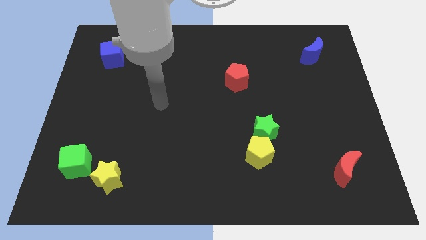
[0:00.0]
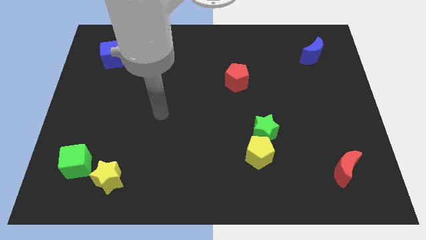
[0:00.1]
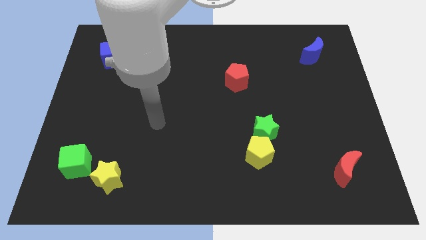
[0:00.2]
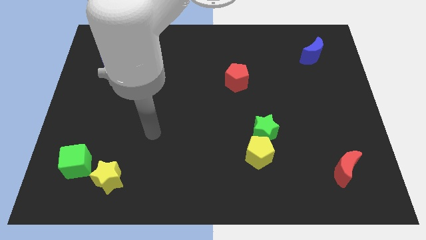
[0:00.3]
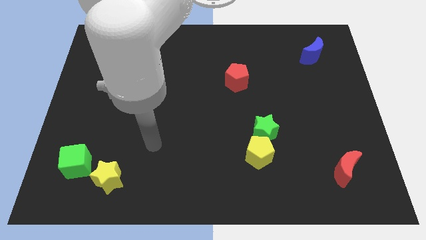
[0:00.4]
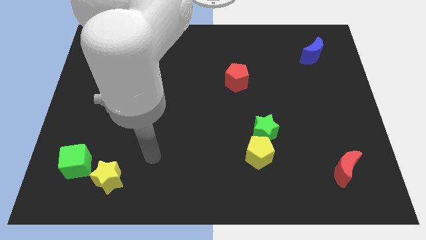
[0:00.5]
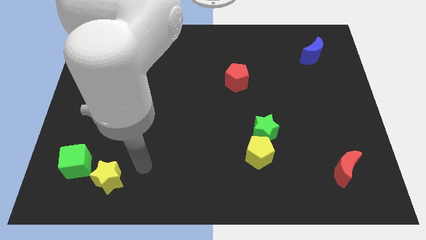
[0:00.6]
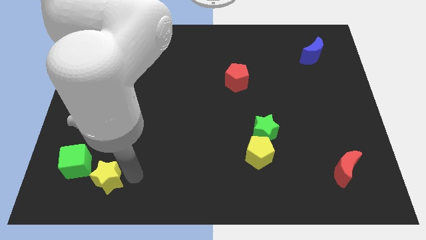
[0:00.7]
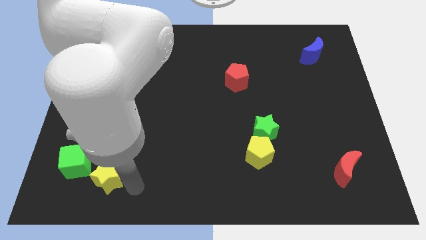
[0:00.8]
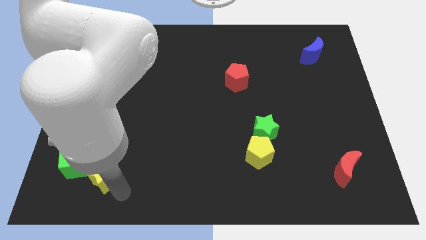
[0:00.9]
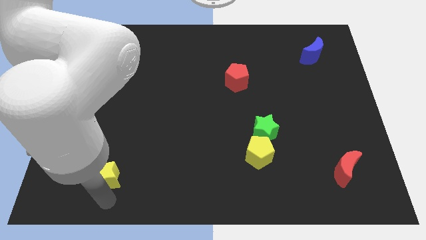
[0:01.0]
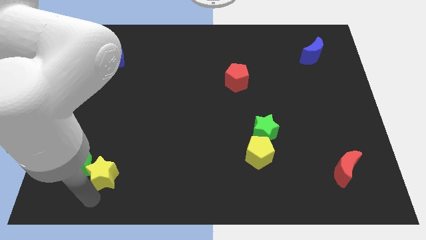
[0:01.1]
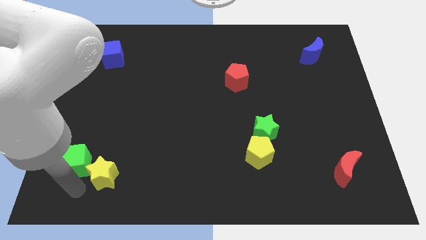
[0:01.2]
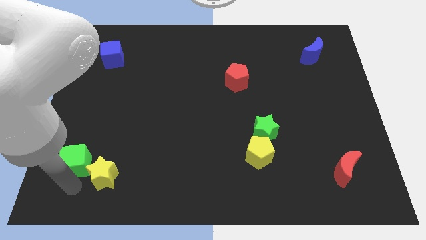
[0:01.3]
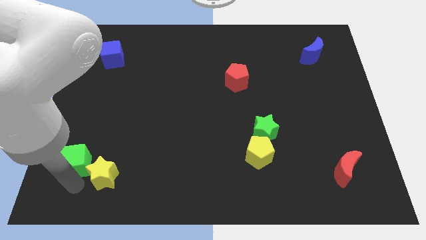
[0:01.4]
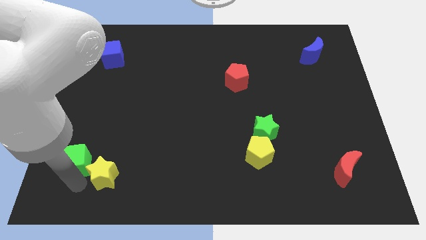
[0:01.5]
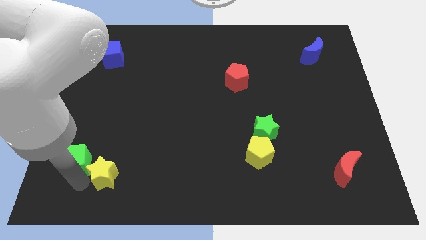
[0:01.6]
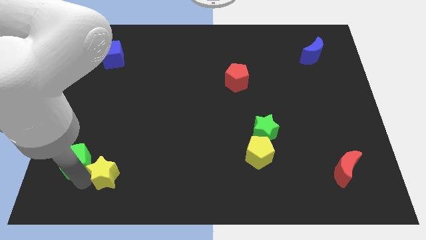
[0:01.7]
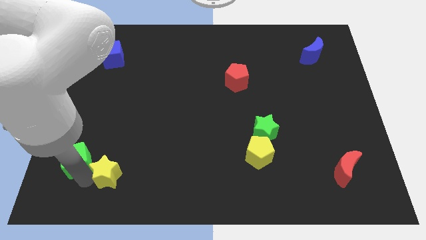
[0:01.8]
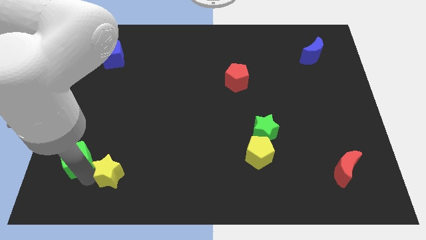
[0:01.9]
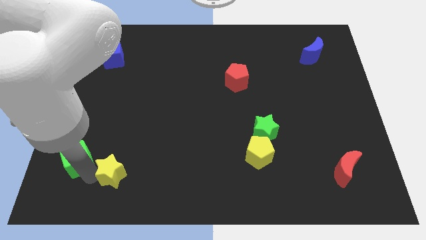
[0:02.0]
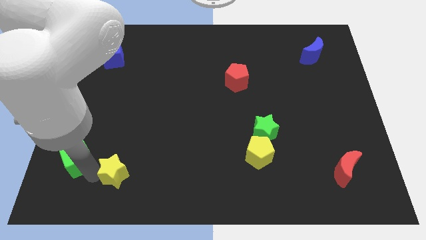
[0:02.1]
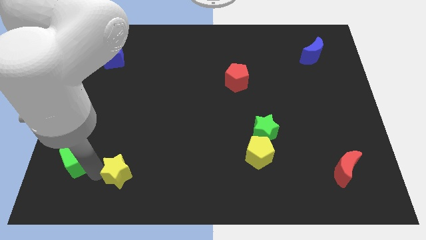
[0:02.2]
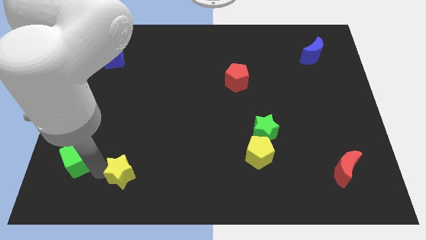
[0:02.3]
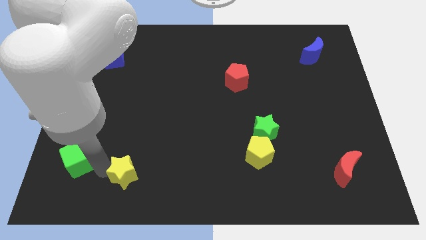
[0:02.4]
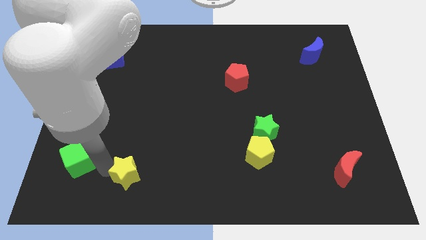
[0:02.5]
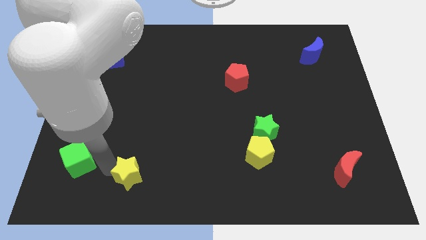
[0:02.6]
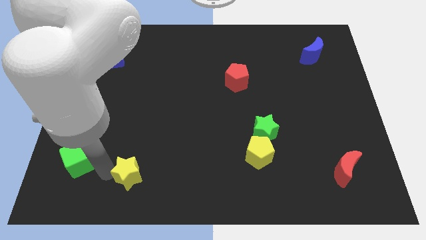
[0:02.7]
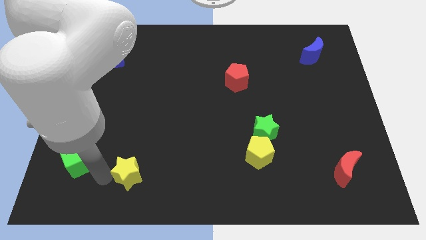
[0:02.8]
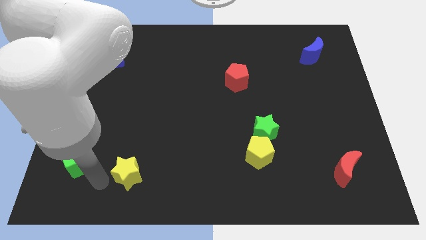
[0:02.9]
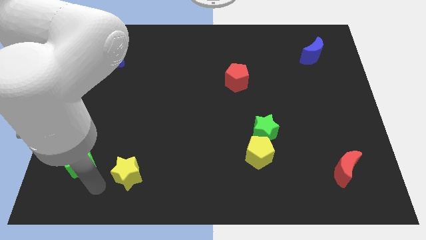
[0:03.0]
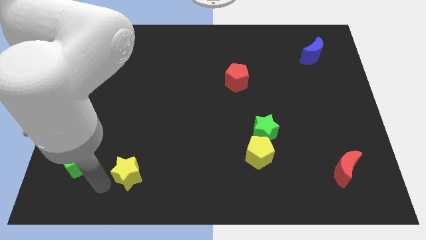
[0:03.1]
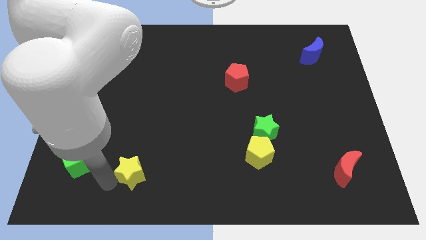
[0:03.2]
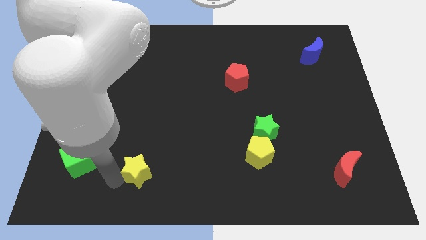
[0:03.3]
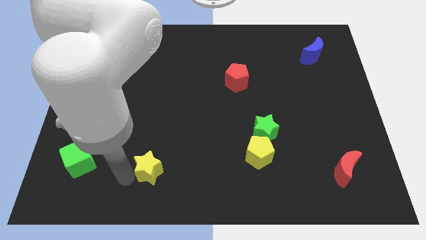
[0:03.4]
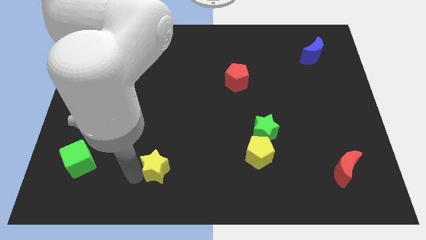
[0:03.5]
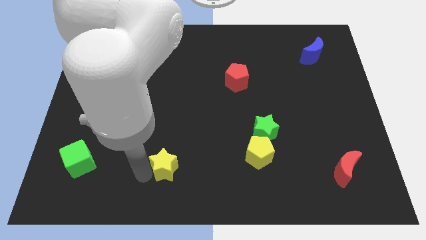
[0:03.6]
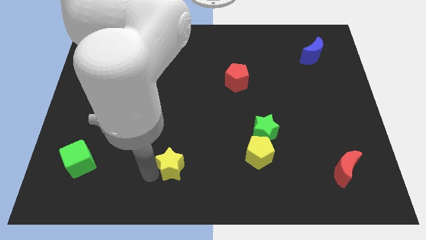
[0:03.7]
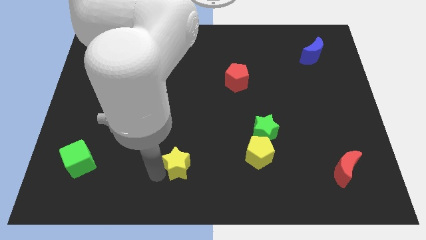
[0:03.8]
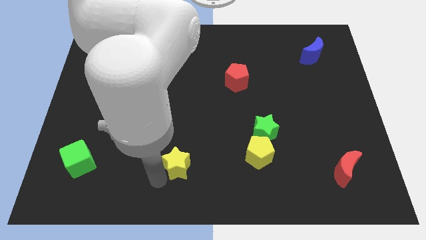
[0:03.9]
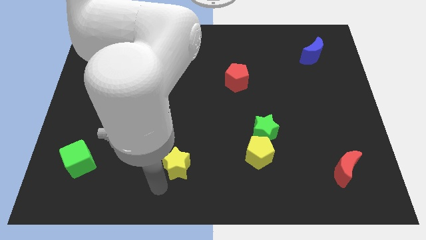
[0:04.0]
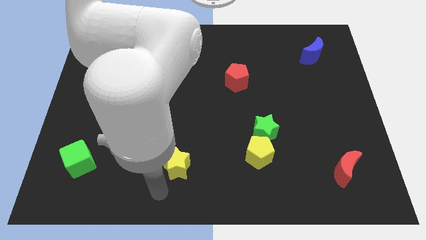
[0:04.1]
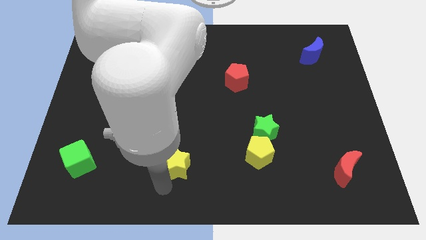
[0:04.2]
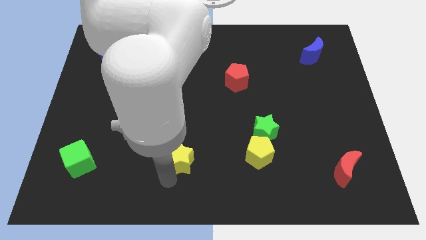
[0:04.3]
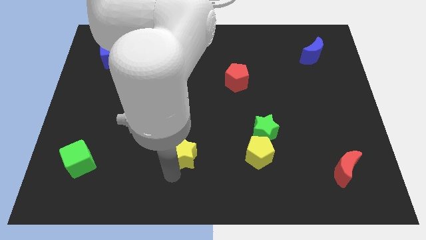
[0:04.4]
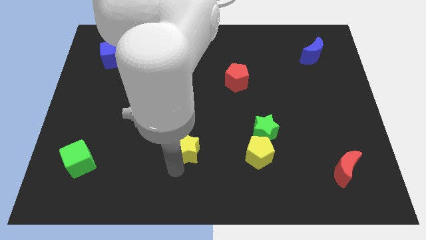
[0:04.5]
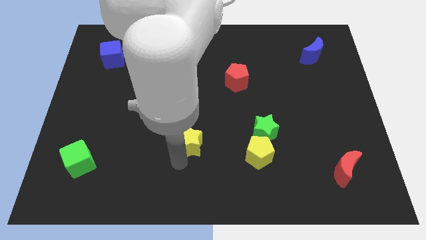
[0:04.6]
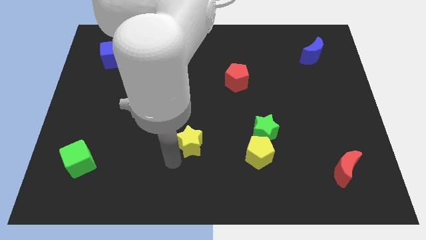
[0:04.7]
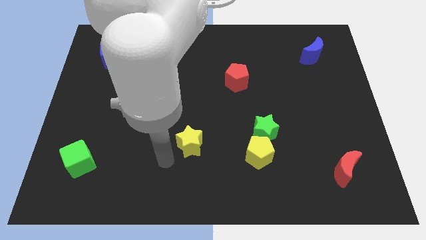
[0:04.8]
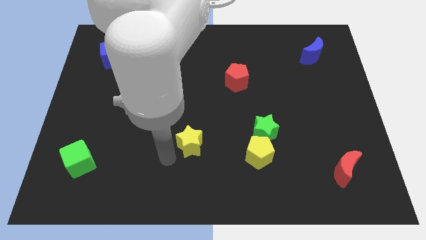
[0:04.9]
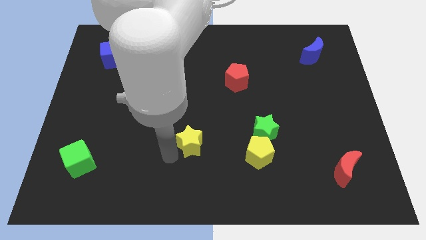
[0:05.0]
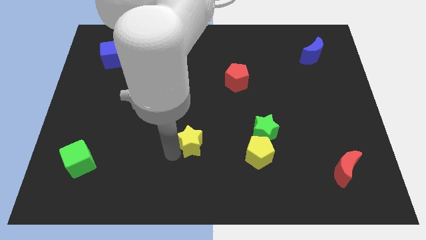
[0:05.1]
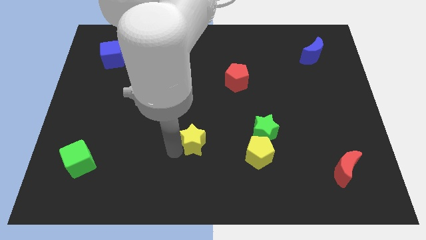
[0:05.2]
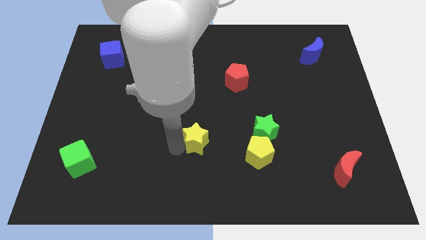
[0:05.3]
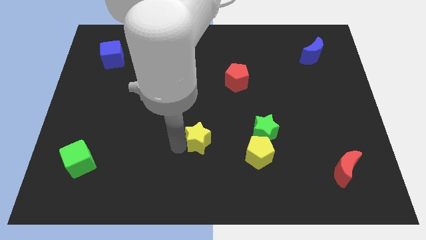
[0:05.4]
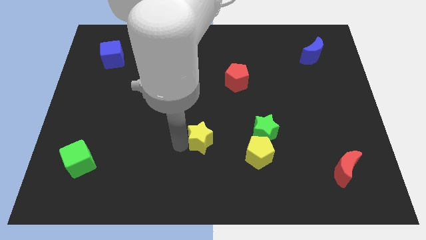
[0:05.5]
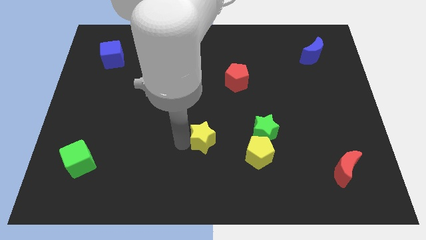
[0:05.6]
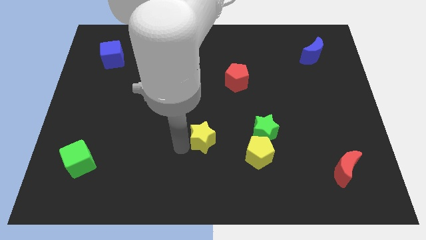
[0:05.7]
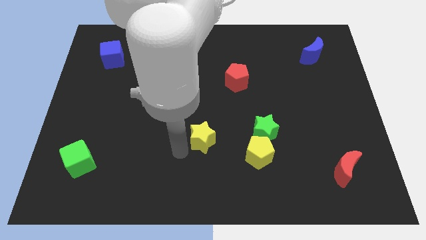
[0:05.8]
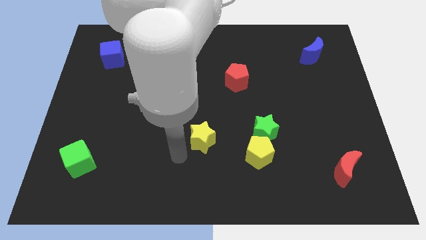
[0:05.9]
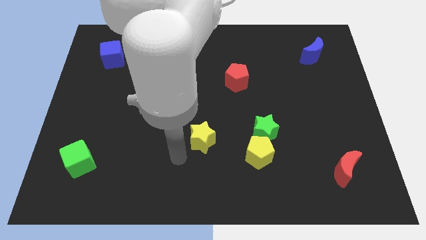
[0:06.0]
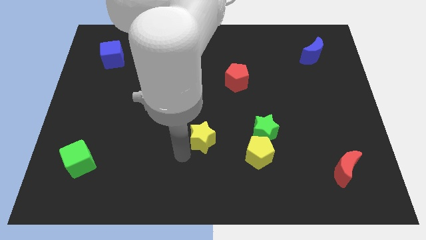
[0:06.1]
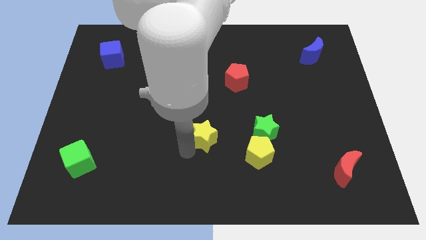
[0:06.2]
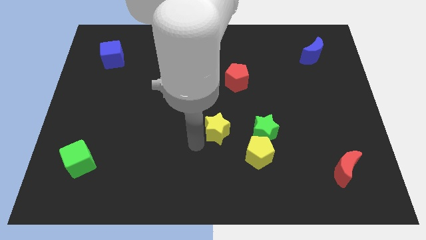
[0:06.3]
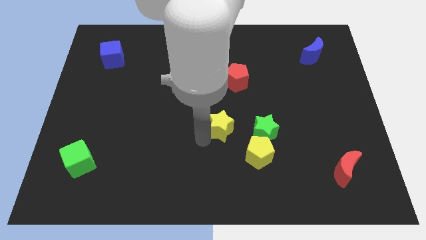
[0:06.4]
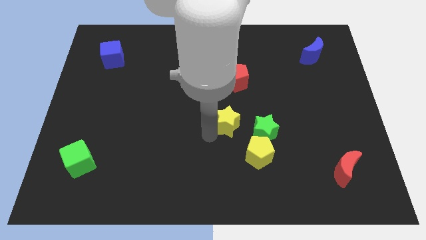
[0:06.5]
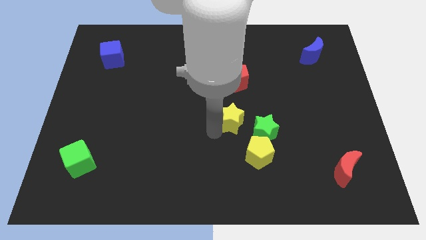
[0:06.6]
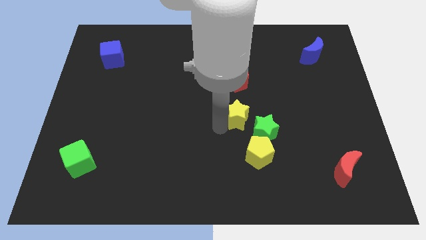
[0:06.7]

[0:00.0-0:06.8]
move the yellow star to the top side of the yellow pentagon
